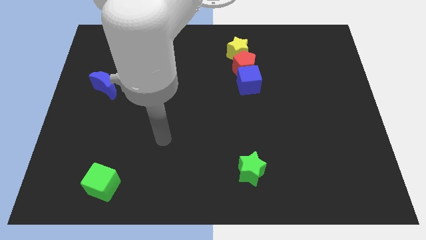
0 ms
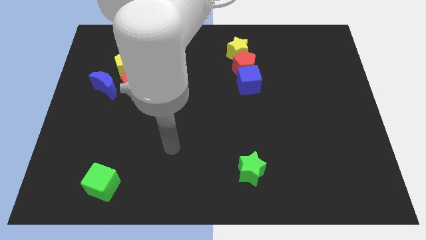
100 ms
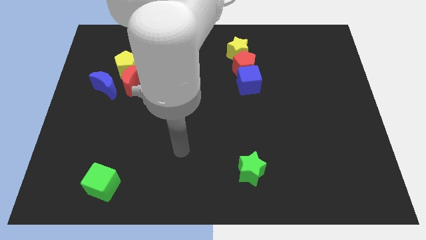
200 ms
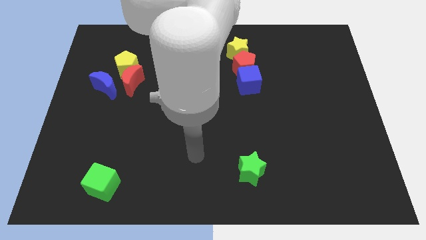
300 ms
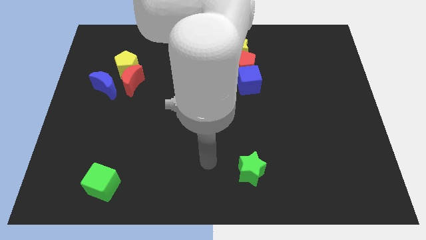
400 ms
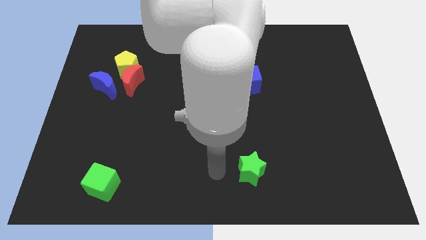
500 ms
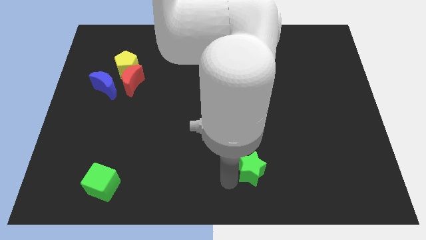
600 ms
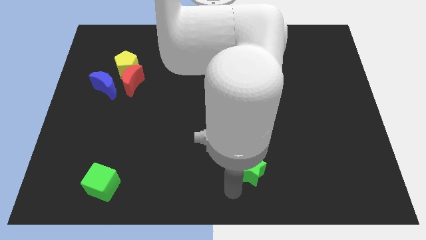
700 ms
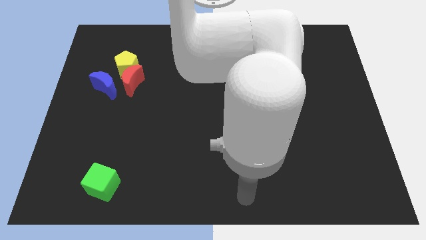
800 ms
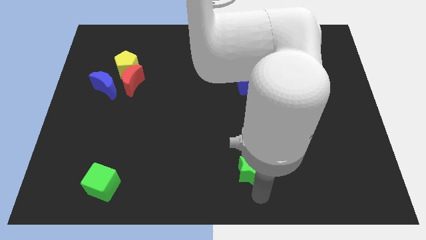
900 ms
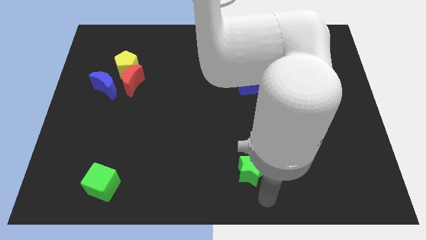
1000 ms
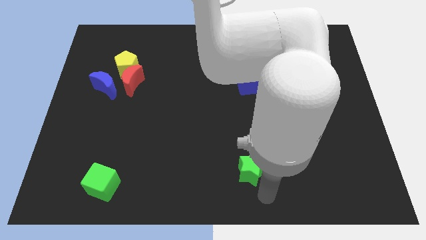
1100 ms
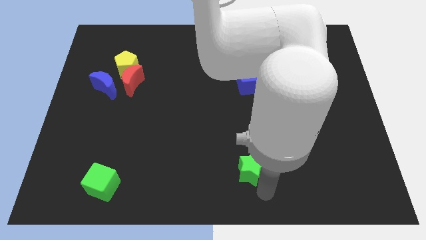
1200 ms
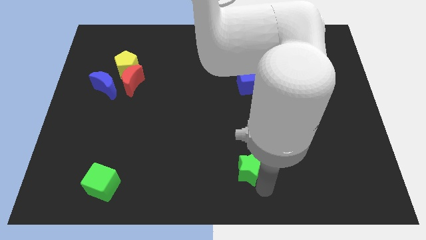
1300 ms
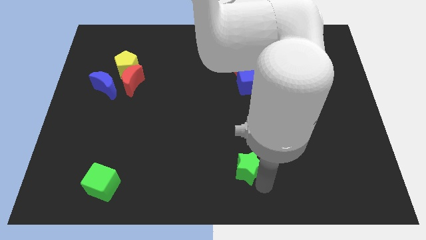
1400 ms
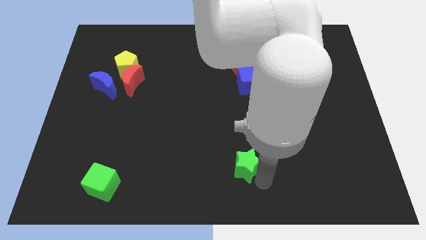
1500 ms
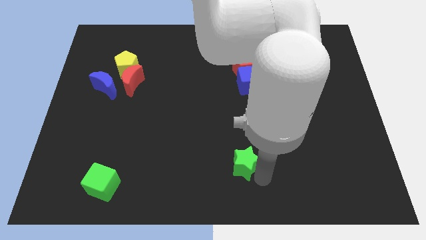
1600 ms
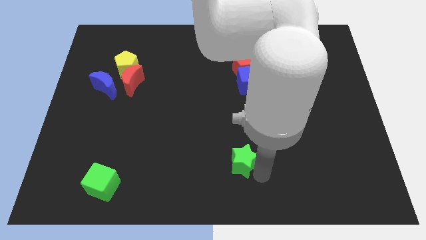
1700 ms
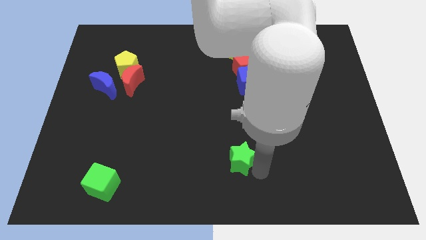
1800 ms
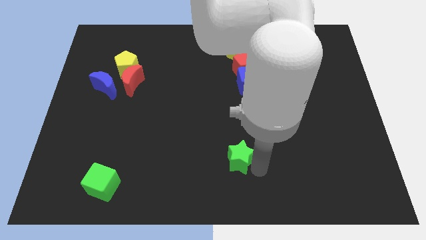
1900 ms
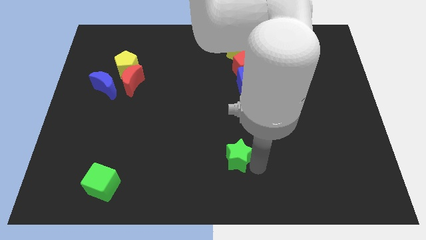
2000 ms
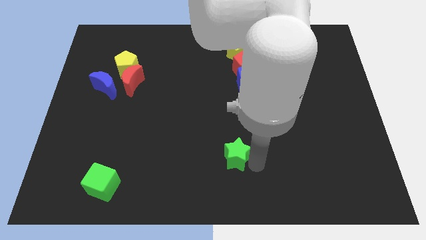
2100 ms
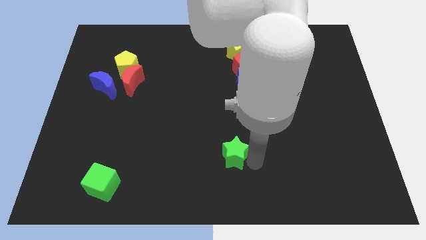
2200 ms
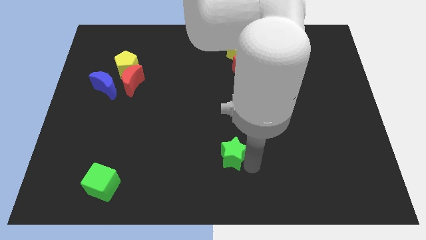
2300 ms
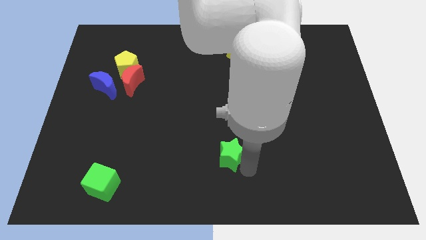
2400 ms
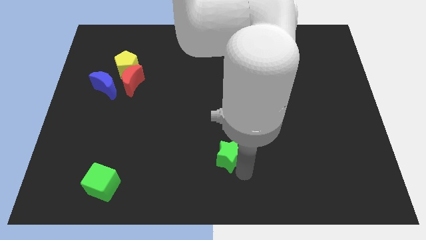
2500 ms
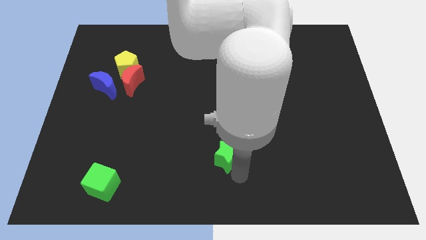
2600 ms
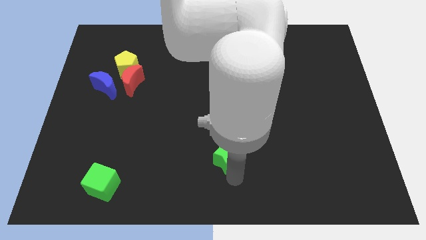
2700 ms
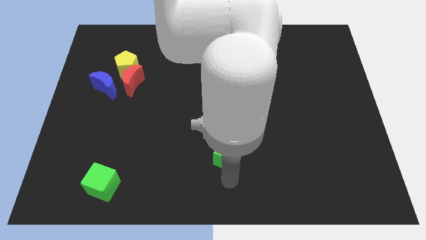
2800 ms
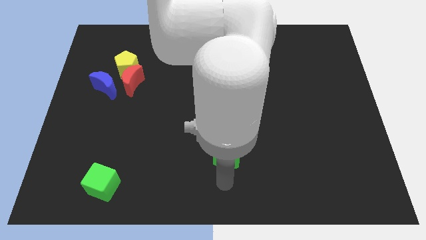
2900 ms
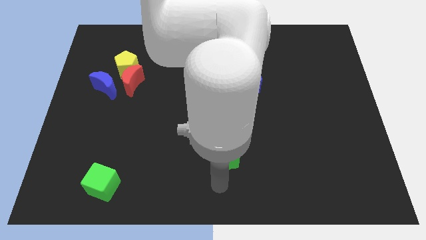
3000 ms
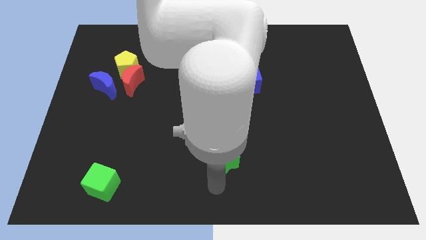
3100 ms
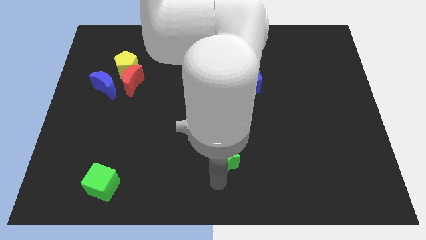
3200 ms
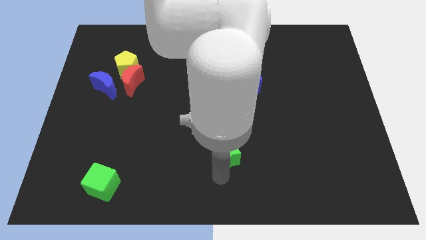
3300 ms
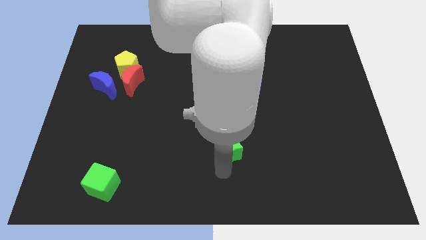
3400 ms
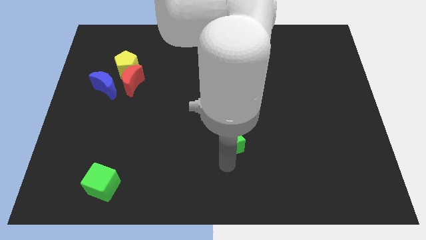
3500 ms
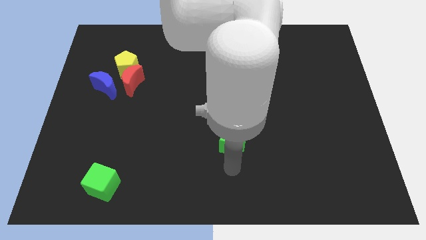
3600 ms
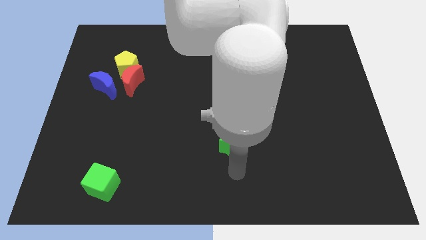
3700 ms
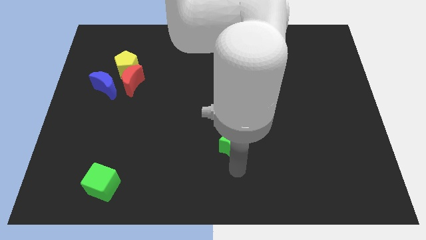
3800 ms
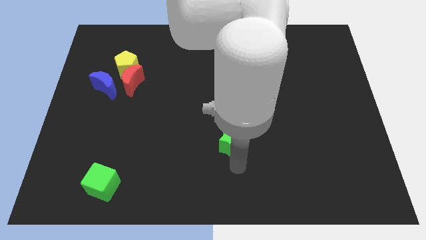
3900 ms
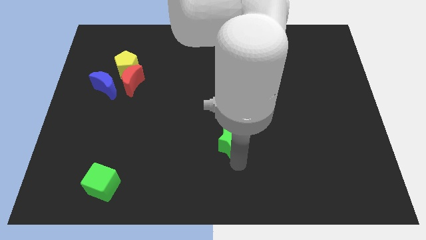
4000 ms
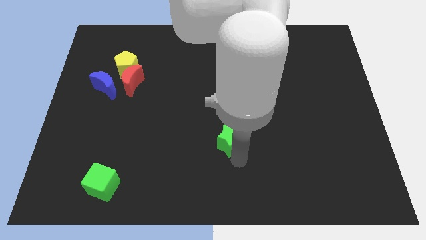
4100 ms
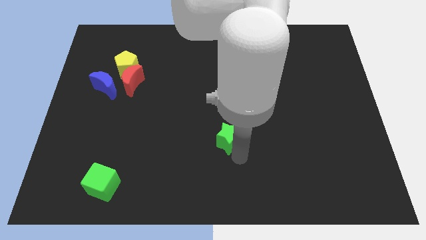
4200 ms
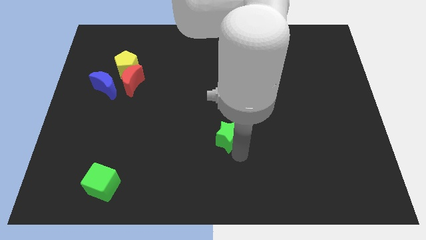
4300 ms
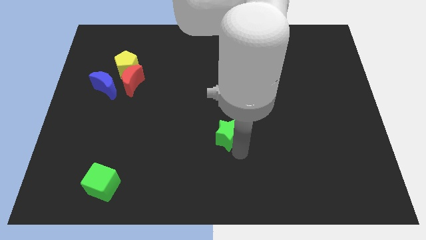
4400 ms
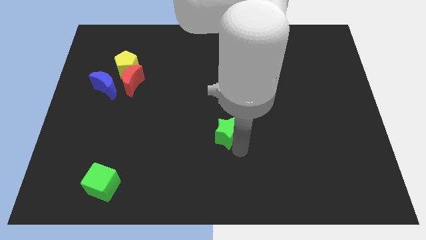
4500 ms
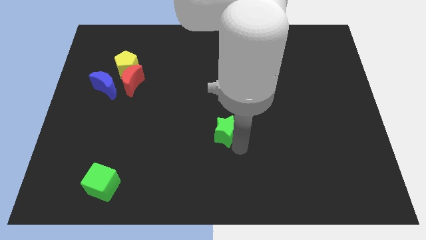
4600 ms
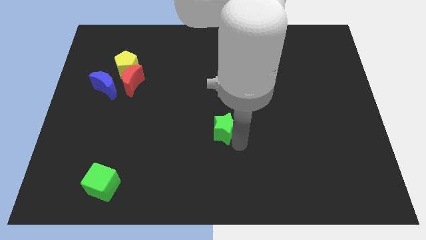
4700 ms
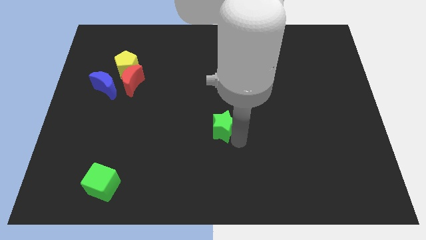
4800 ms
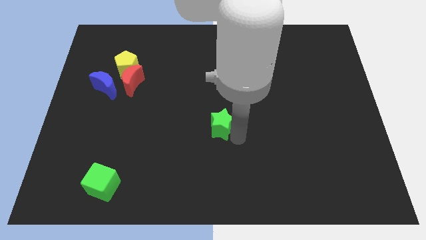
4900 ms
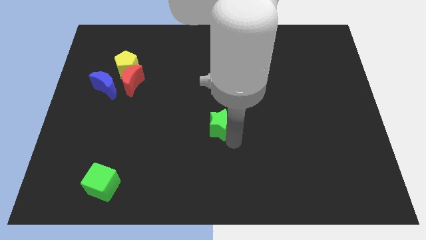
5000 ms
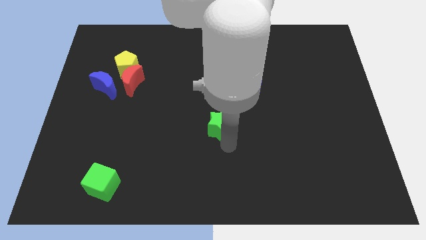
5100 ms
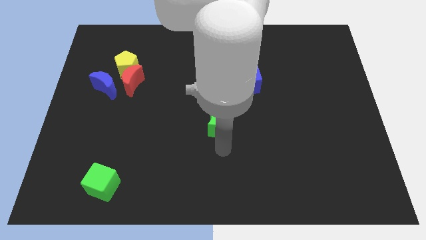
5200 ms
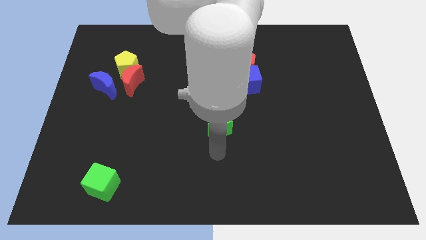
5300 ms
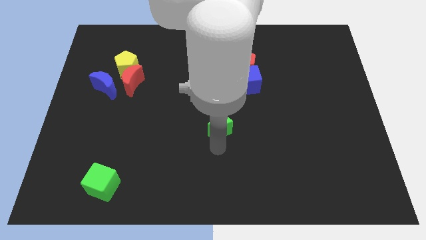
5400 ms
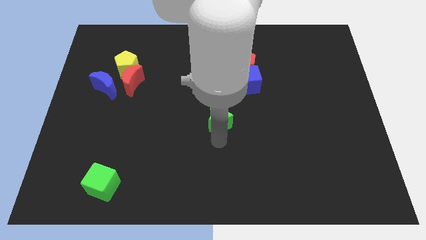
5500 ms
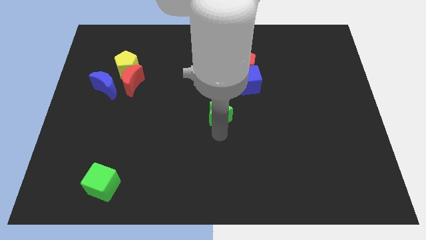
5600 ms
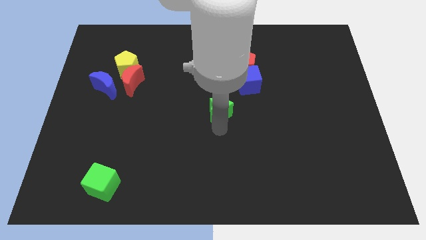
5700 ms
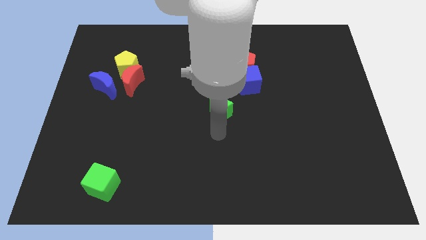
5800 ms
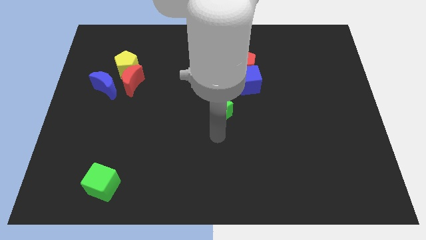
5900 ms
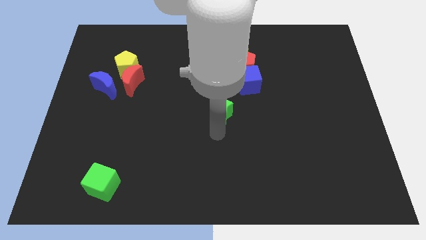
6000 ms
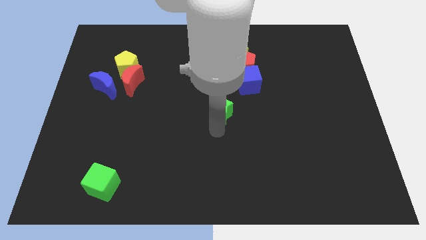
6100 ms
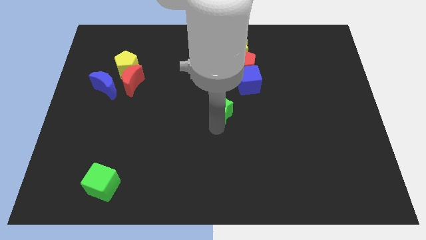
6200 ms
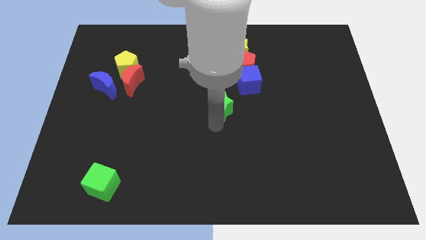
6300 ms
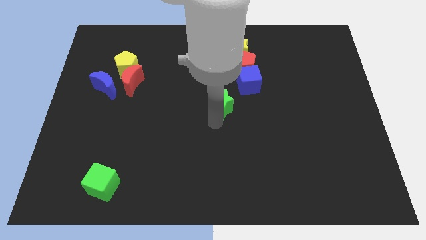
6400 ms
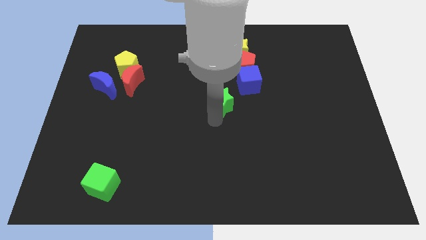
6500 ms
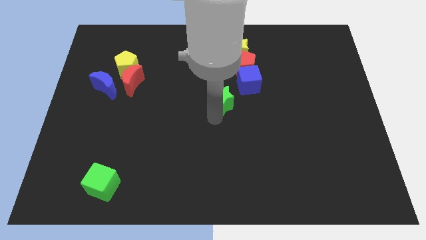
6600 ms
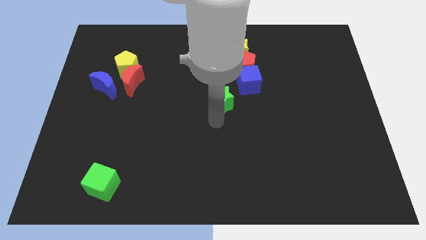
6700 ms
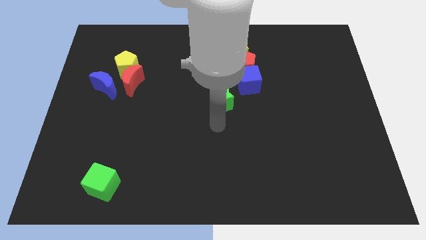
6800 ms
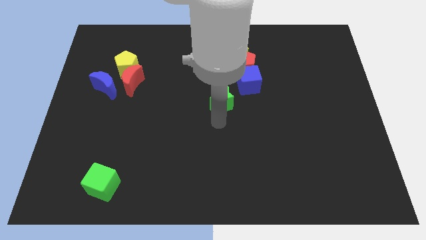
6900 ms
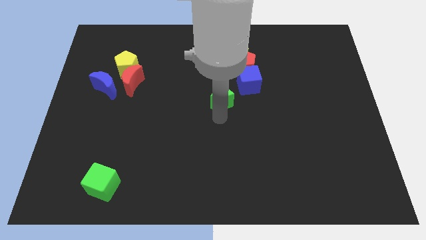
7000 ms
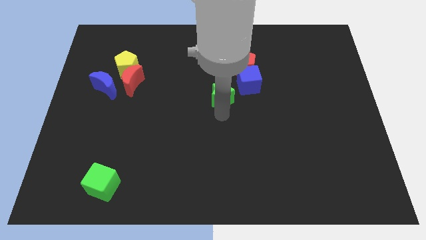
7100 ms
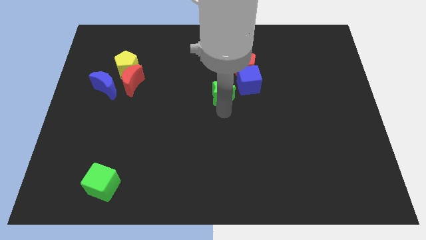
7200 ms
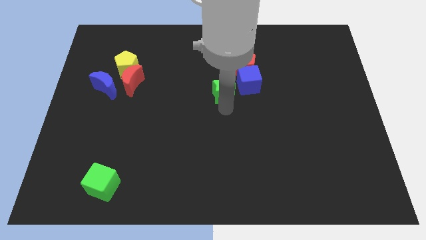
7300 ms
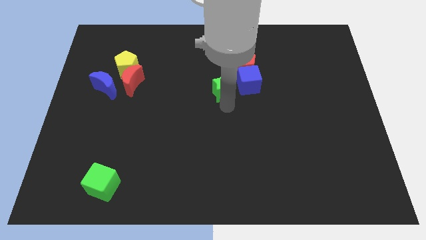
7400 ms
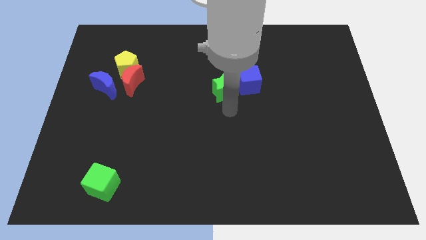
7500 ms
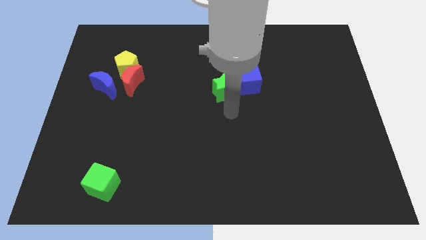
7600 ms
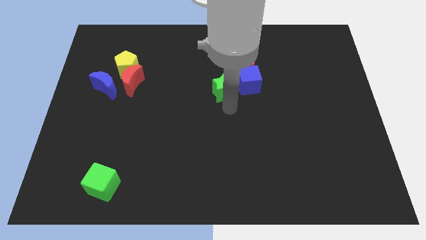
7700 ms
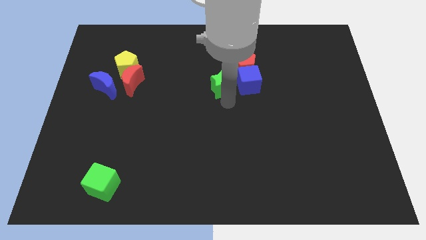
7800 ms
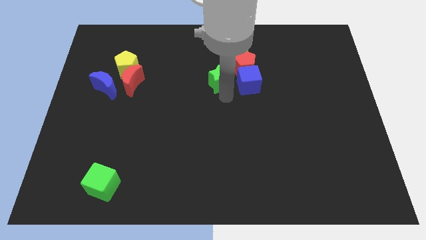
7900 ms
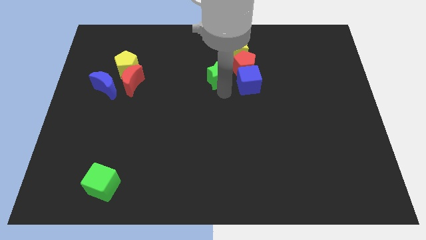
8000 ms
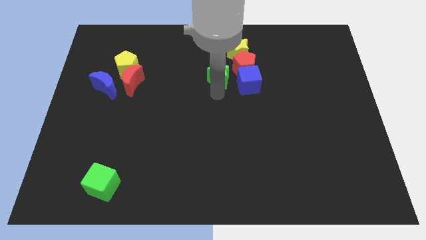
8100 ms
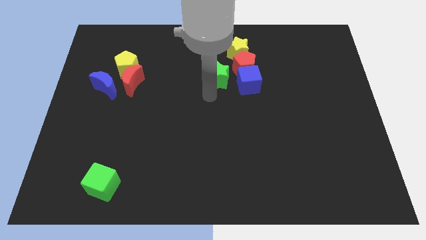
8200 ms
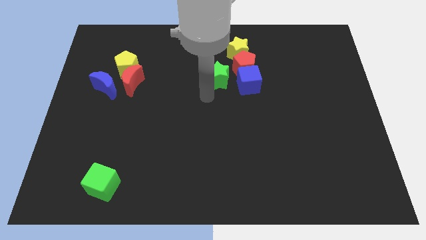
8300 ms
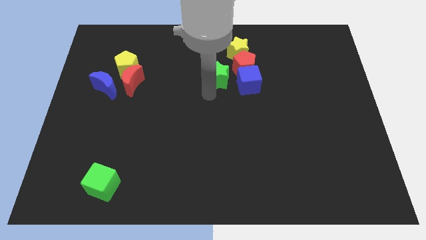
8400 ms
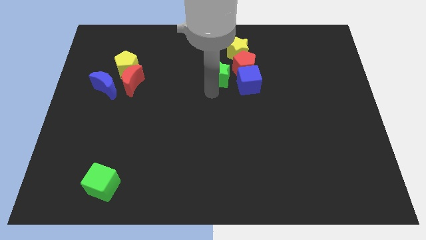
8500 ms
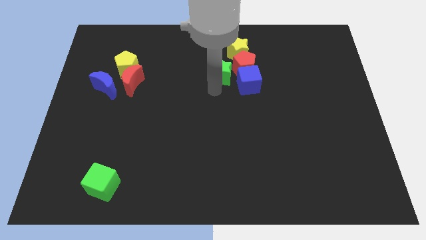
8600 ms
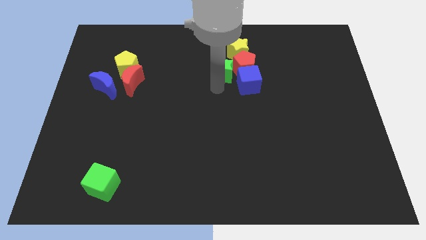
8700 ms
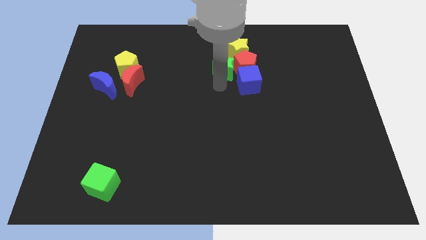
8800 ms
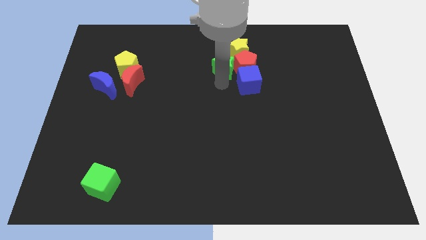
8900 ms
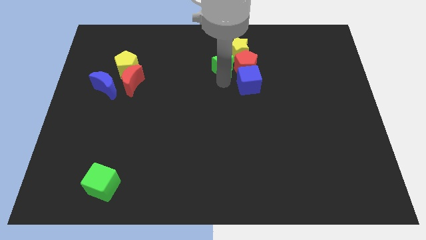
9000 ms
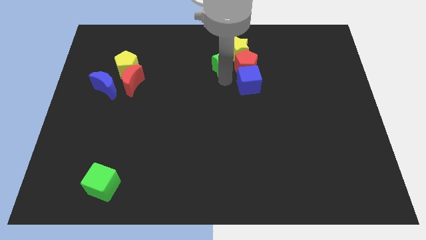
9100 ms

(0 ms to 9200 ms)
put the green star to the yellow star
